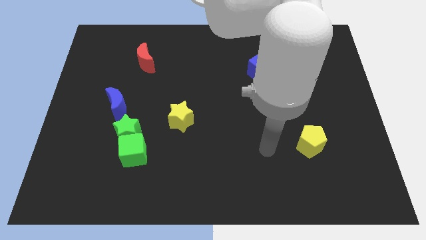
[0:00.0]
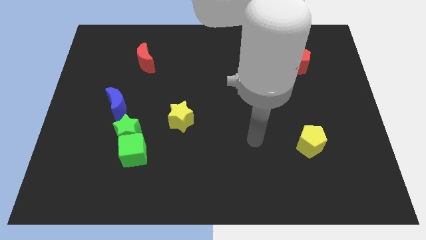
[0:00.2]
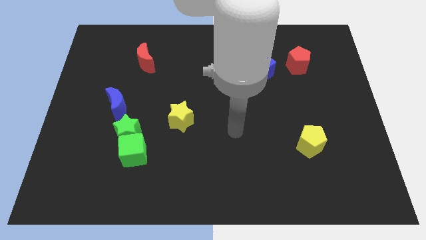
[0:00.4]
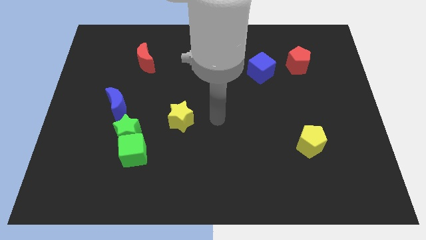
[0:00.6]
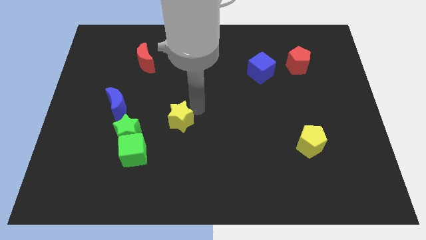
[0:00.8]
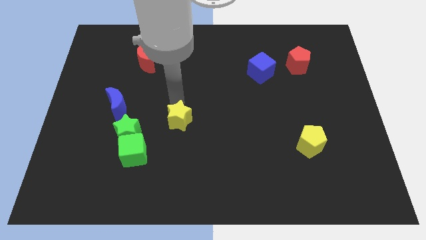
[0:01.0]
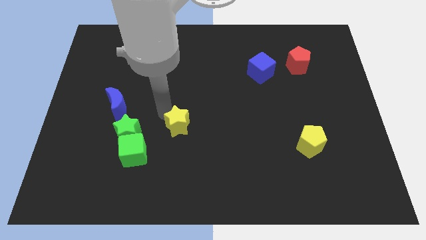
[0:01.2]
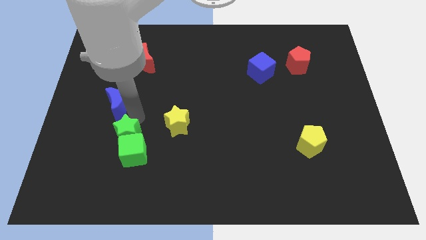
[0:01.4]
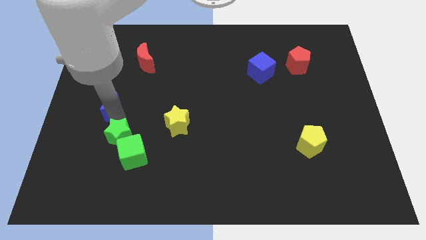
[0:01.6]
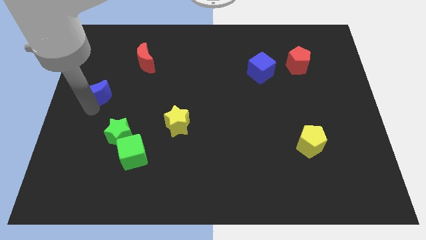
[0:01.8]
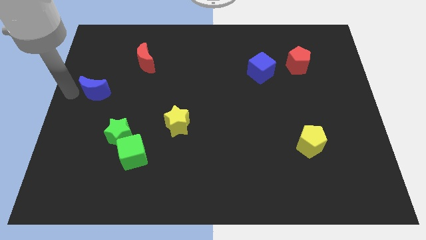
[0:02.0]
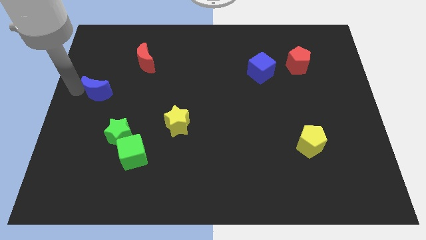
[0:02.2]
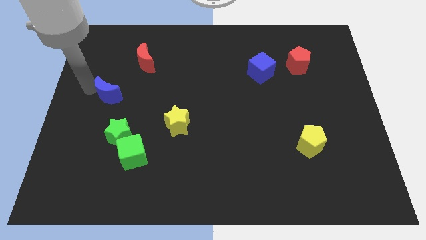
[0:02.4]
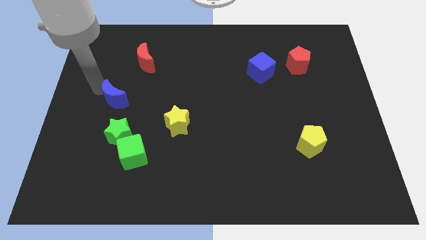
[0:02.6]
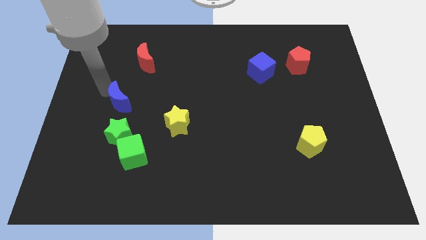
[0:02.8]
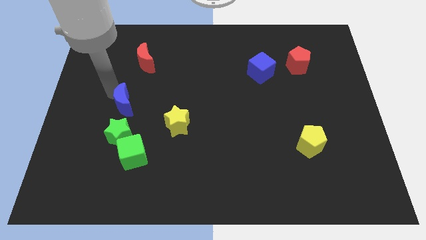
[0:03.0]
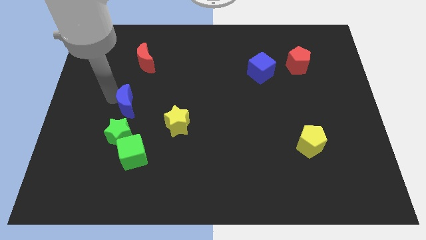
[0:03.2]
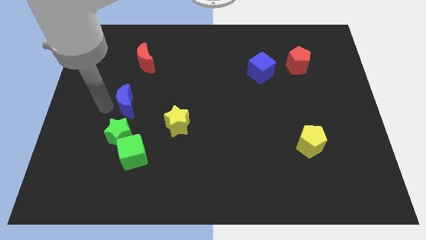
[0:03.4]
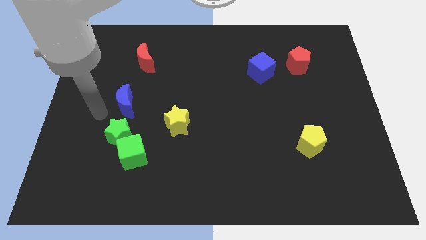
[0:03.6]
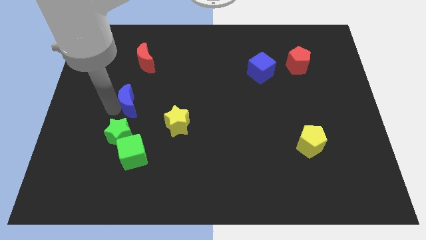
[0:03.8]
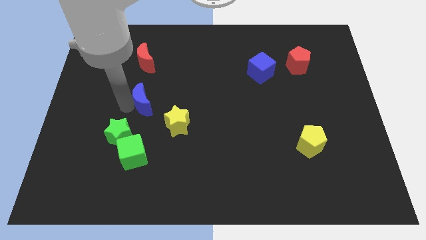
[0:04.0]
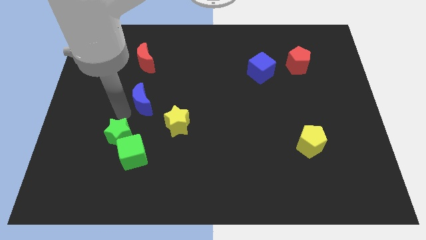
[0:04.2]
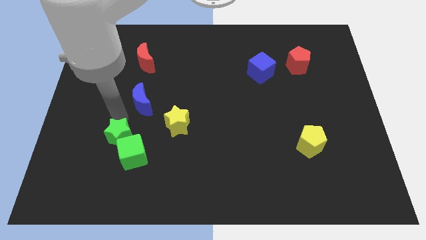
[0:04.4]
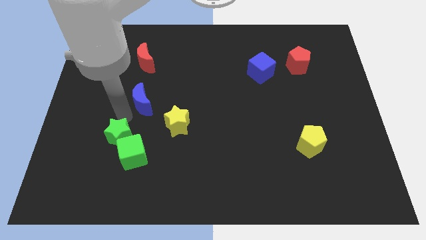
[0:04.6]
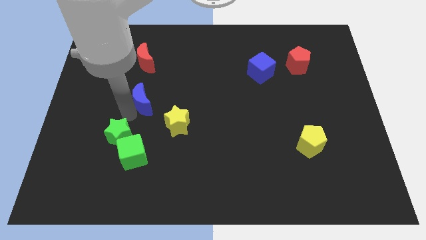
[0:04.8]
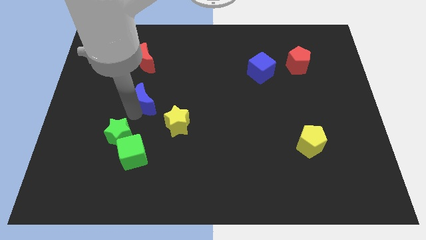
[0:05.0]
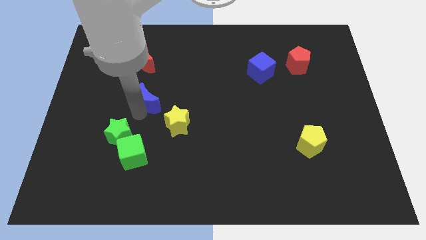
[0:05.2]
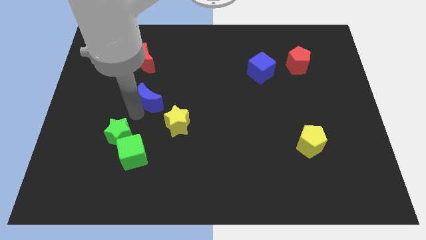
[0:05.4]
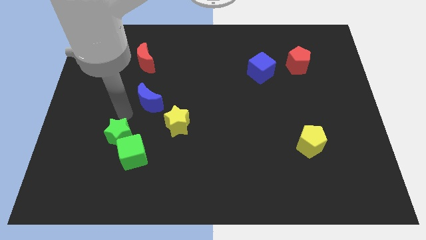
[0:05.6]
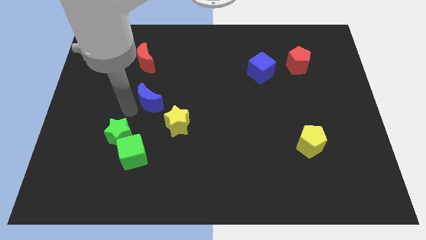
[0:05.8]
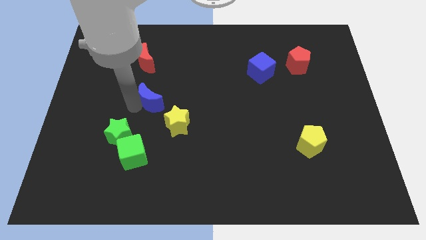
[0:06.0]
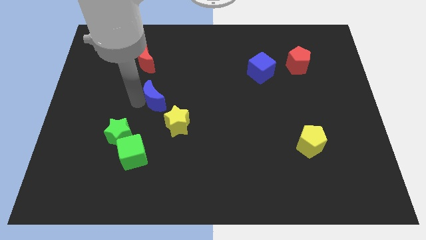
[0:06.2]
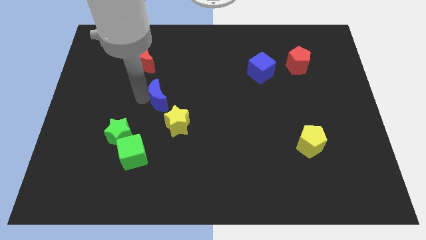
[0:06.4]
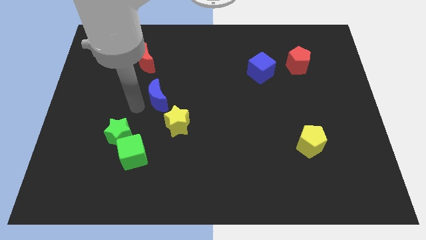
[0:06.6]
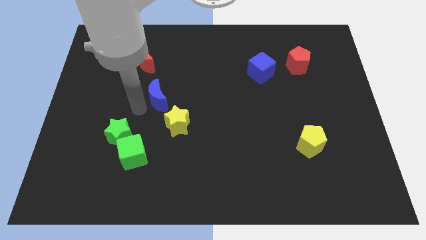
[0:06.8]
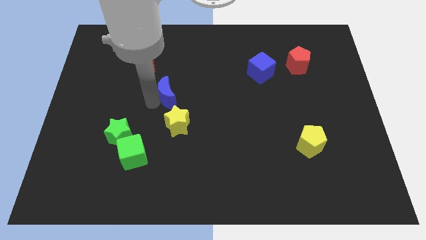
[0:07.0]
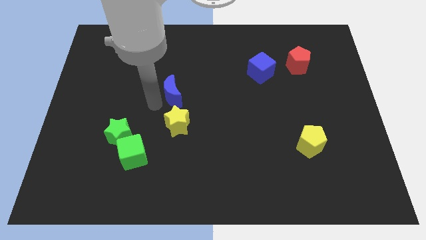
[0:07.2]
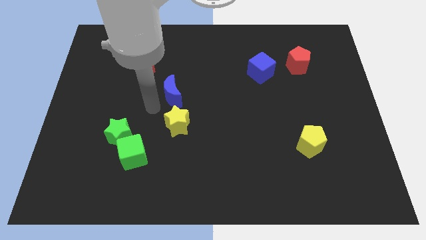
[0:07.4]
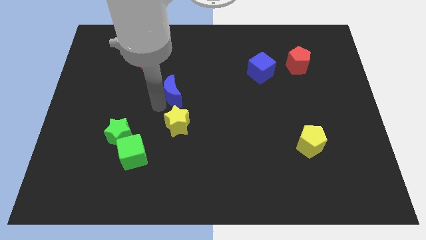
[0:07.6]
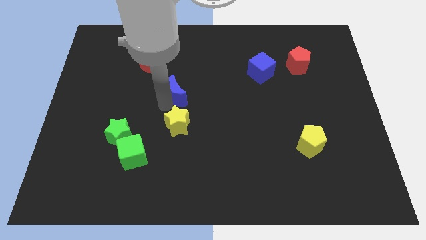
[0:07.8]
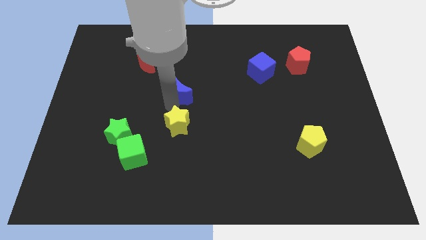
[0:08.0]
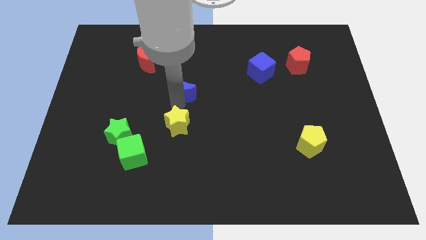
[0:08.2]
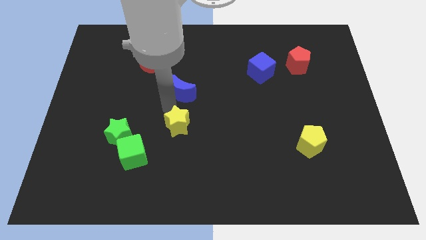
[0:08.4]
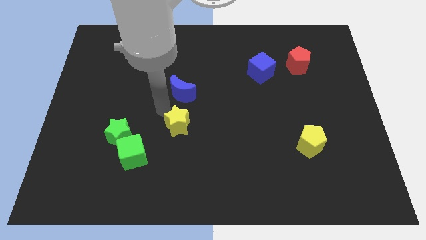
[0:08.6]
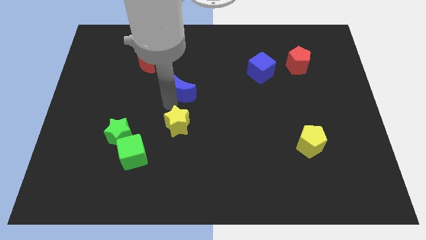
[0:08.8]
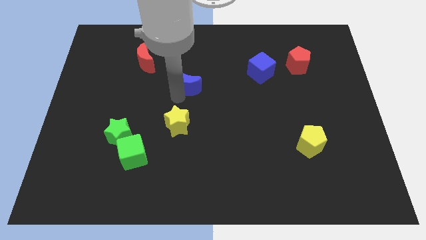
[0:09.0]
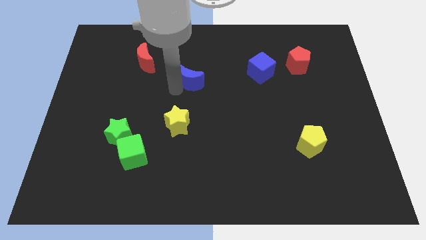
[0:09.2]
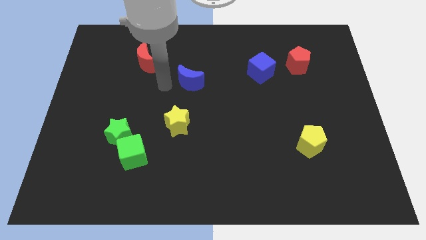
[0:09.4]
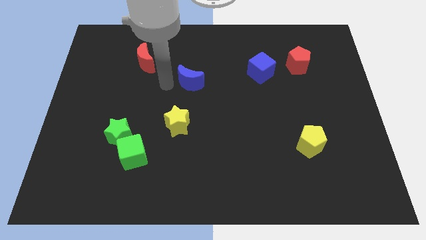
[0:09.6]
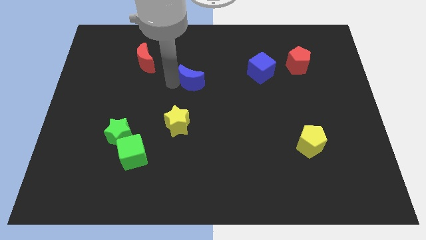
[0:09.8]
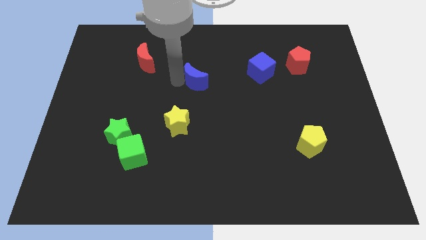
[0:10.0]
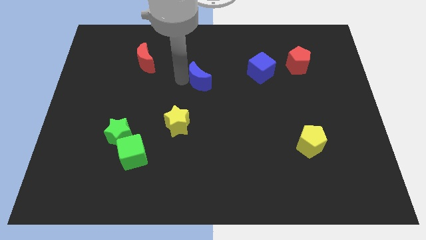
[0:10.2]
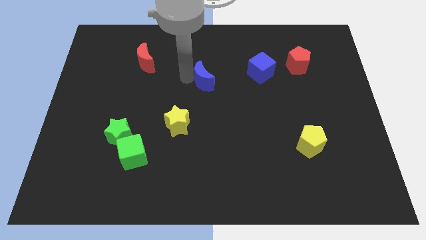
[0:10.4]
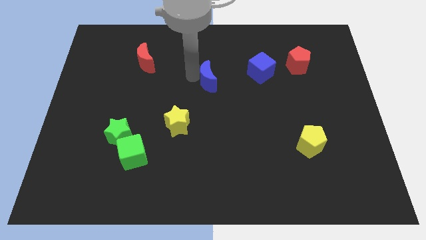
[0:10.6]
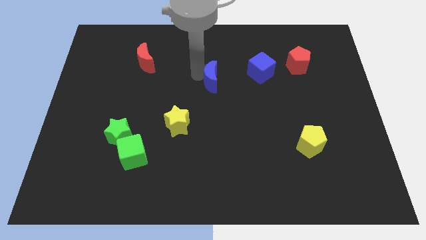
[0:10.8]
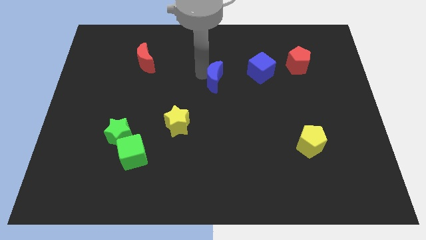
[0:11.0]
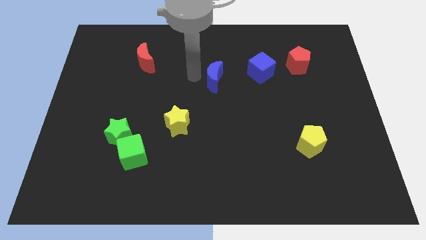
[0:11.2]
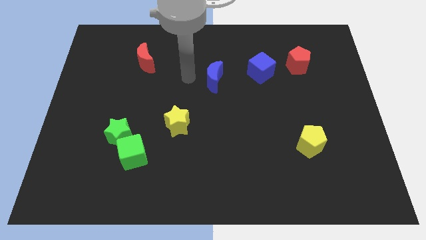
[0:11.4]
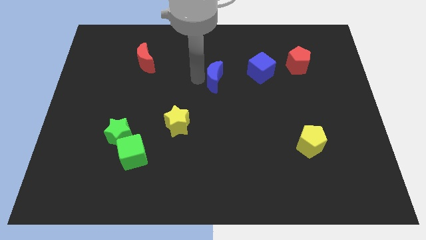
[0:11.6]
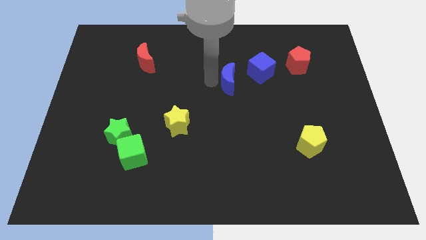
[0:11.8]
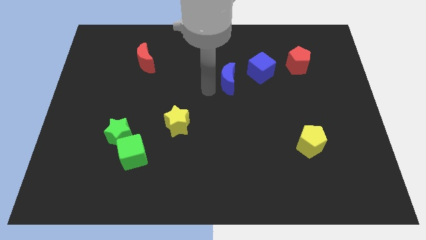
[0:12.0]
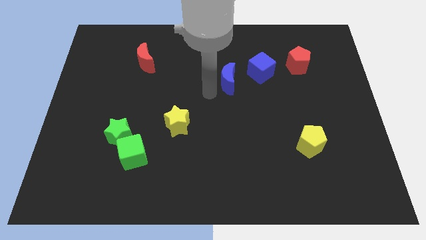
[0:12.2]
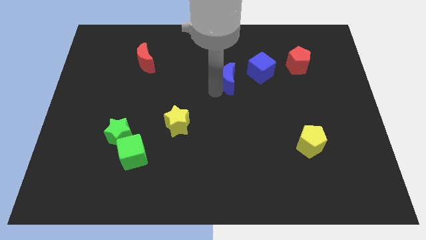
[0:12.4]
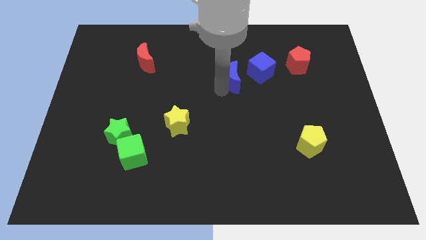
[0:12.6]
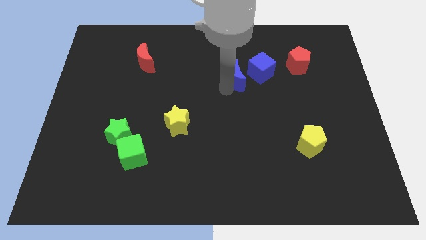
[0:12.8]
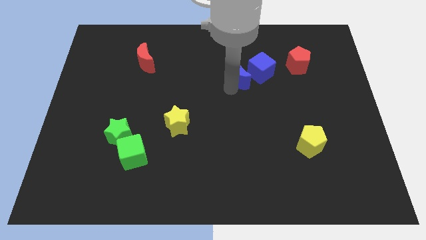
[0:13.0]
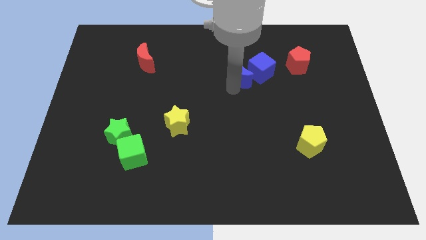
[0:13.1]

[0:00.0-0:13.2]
push the blue moon to the blue cube

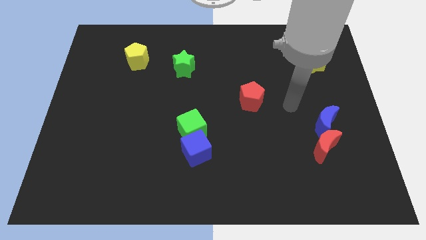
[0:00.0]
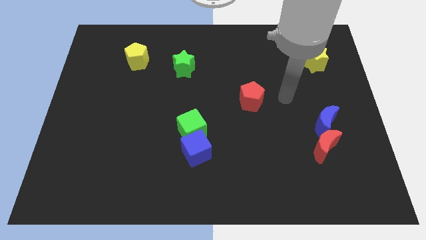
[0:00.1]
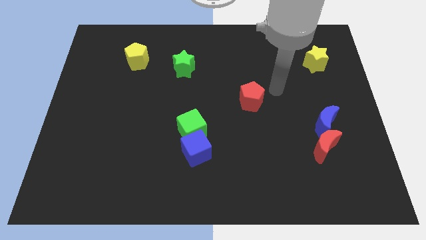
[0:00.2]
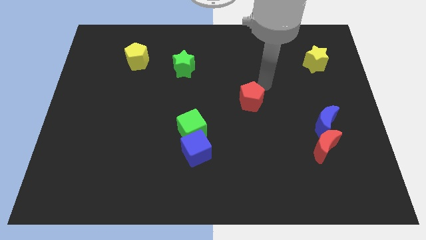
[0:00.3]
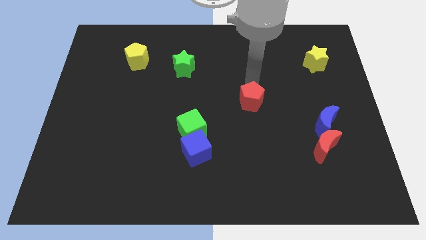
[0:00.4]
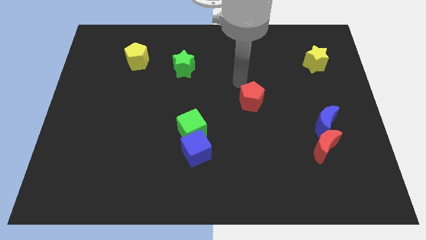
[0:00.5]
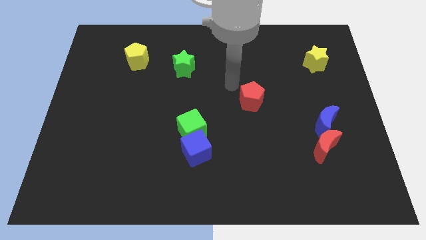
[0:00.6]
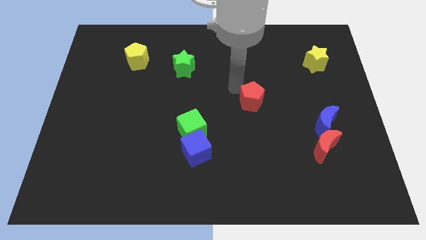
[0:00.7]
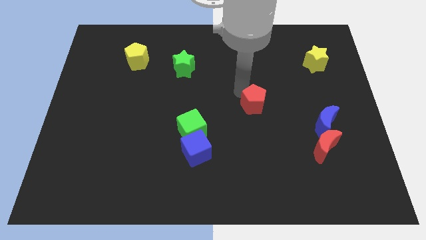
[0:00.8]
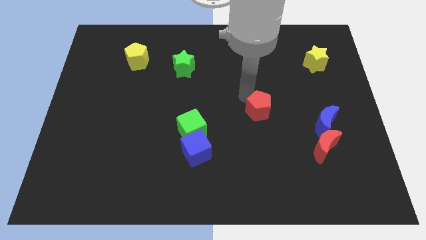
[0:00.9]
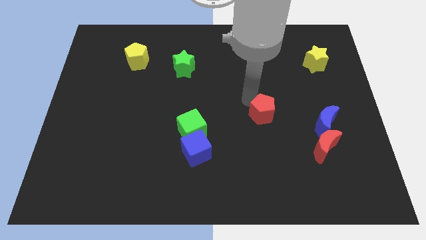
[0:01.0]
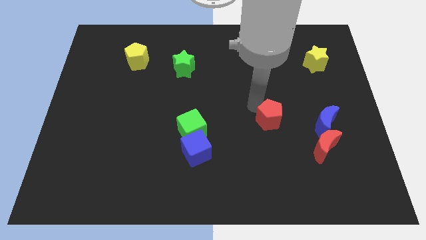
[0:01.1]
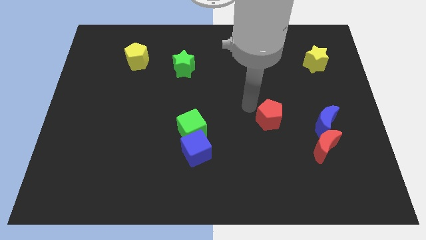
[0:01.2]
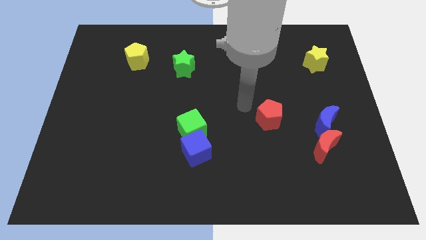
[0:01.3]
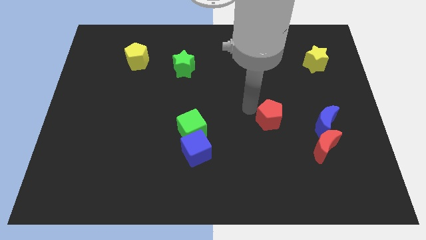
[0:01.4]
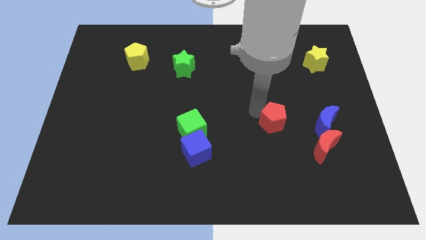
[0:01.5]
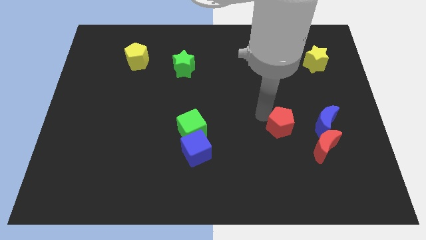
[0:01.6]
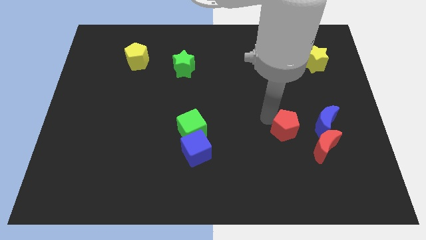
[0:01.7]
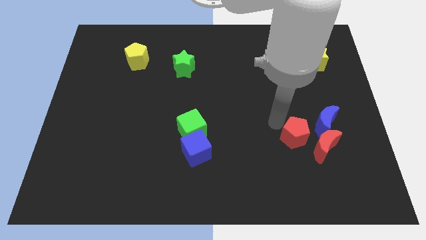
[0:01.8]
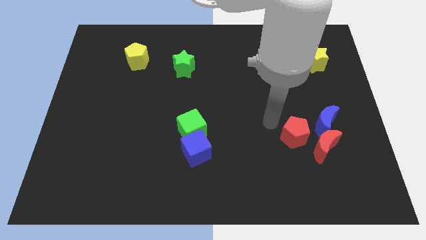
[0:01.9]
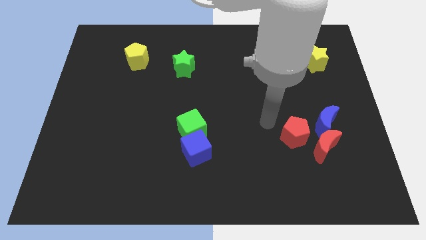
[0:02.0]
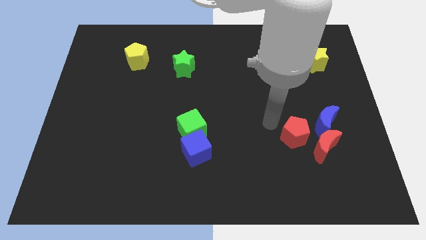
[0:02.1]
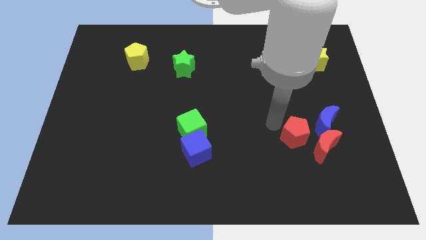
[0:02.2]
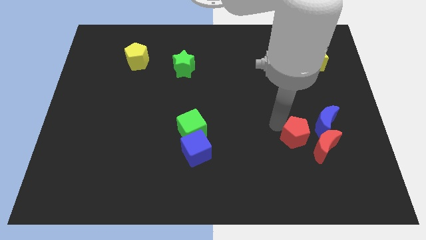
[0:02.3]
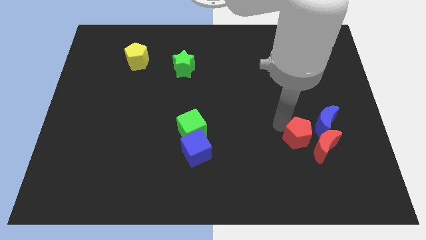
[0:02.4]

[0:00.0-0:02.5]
put the red pentagon next to the red moon
